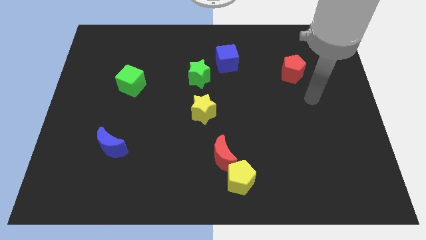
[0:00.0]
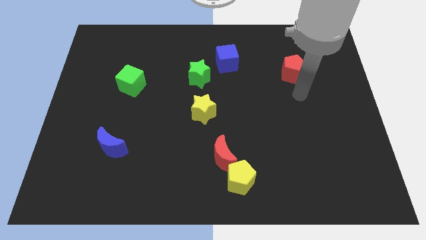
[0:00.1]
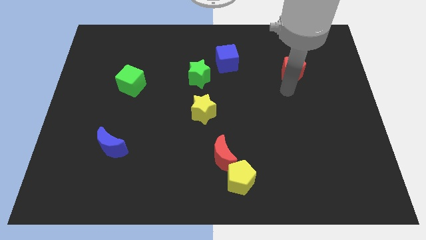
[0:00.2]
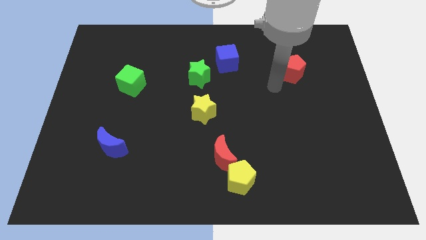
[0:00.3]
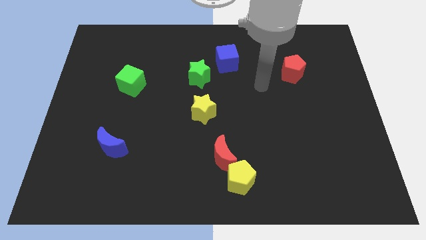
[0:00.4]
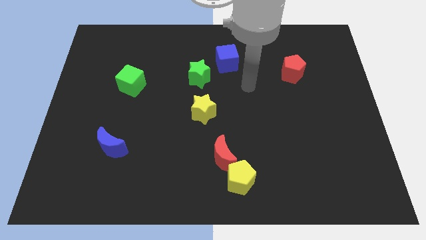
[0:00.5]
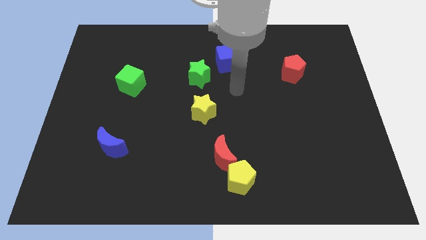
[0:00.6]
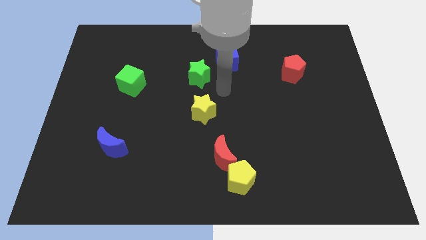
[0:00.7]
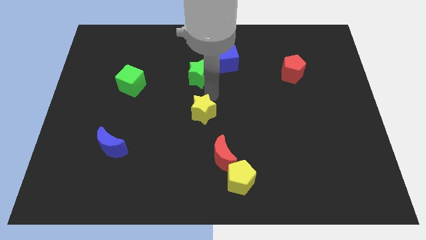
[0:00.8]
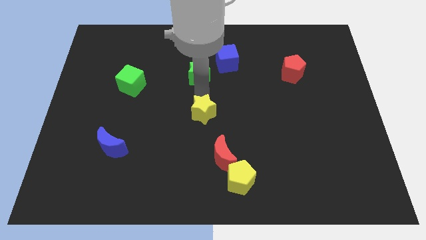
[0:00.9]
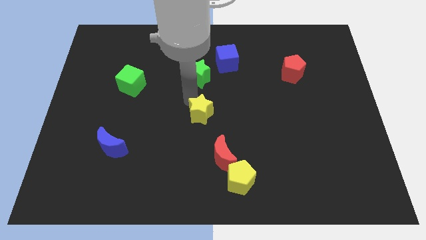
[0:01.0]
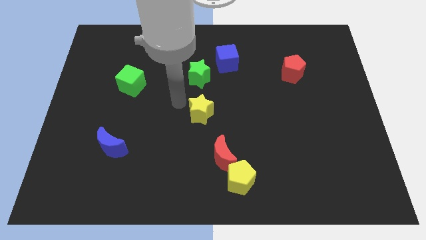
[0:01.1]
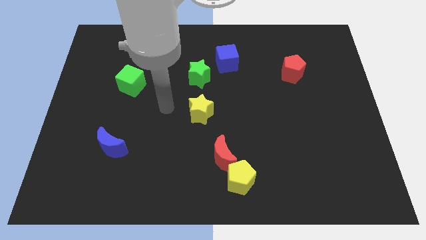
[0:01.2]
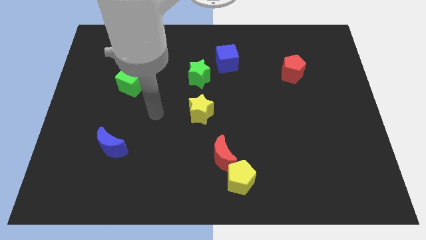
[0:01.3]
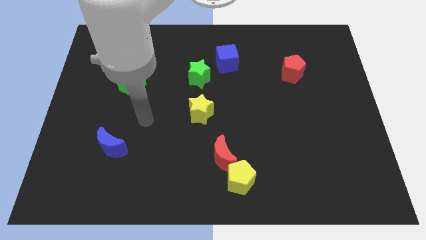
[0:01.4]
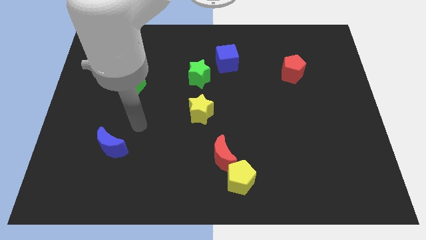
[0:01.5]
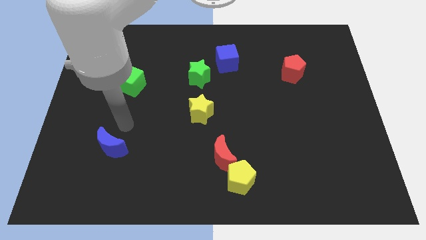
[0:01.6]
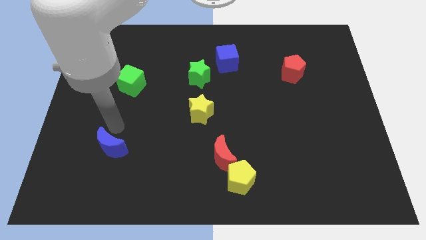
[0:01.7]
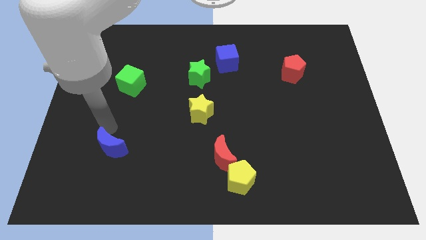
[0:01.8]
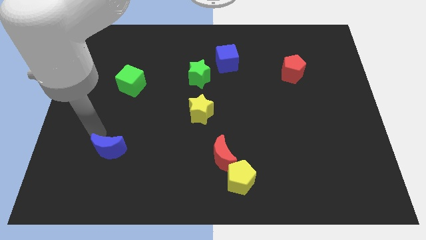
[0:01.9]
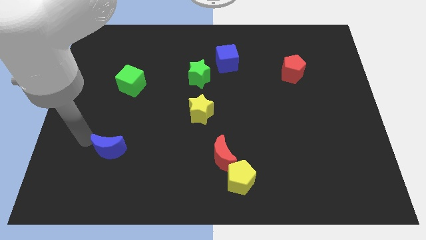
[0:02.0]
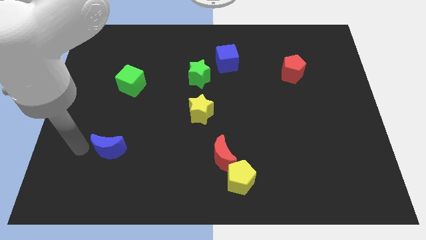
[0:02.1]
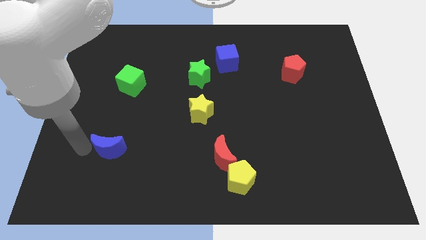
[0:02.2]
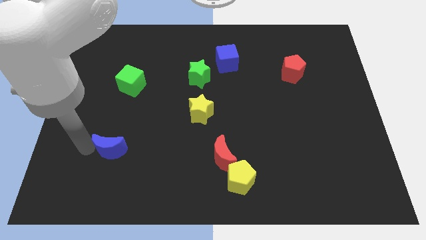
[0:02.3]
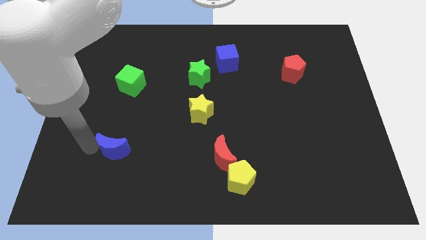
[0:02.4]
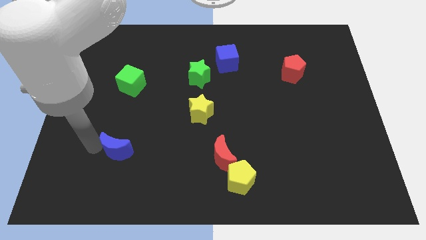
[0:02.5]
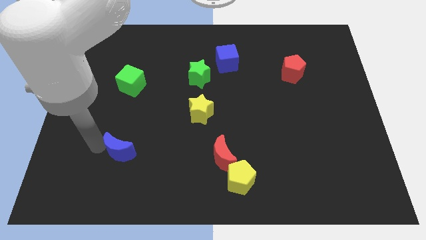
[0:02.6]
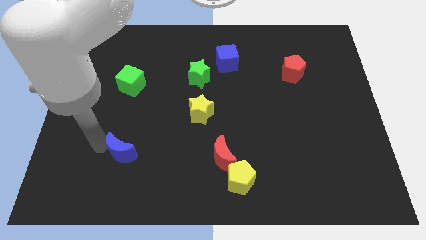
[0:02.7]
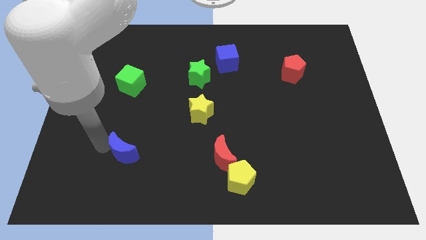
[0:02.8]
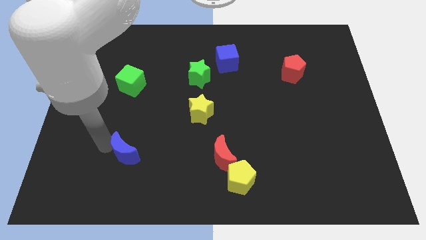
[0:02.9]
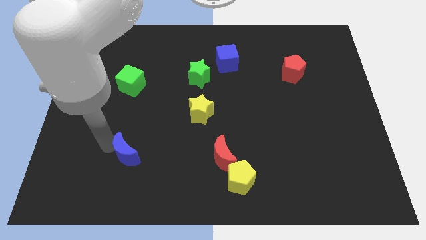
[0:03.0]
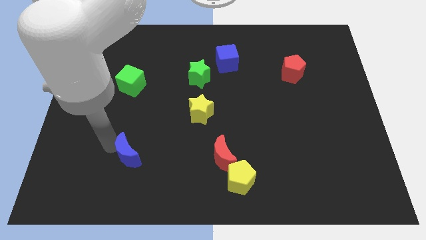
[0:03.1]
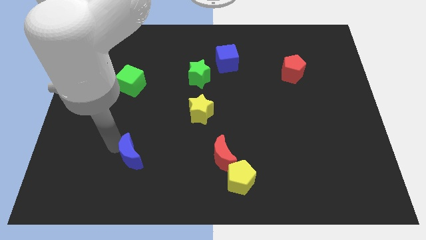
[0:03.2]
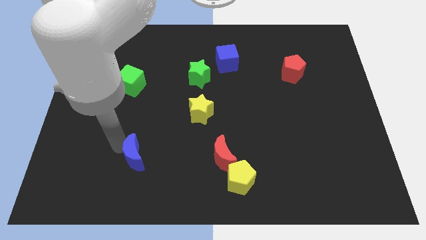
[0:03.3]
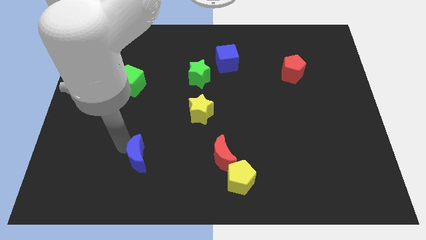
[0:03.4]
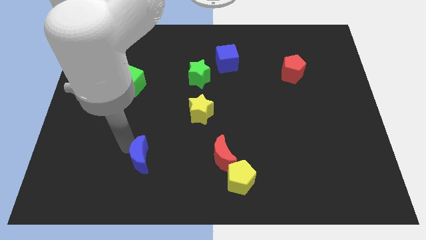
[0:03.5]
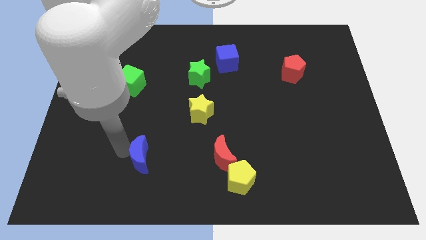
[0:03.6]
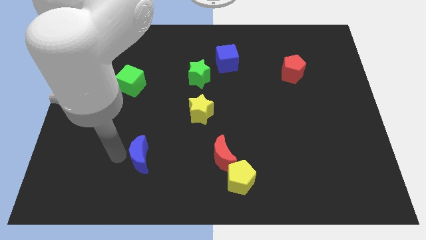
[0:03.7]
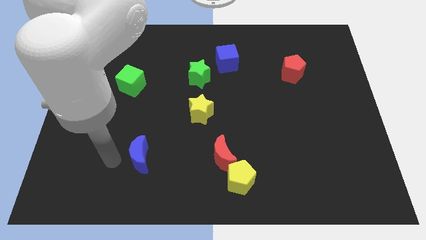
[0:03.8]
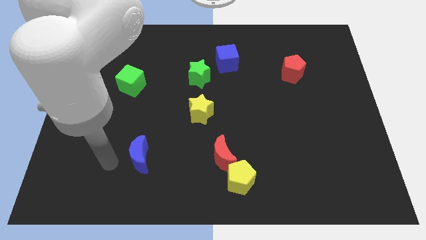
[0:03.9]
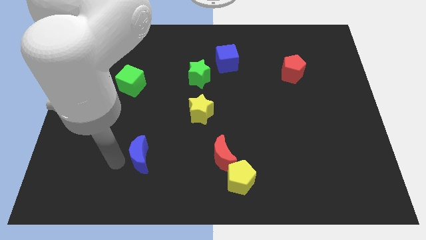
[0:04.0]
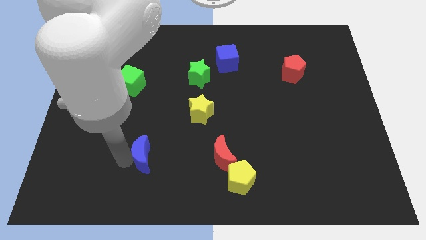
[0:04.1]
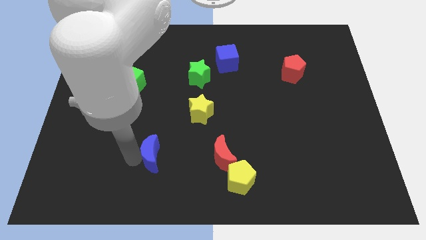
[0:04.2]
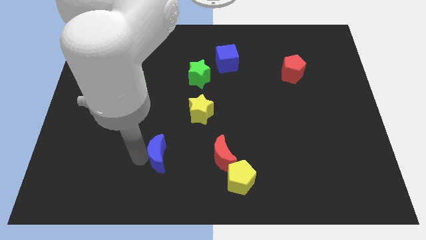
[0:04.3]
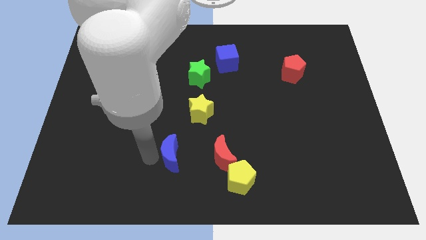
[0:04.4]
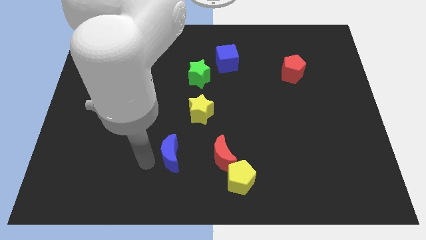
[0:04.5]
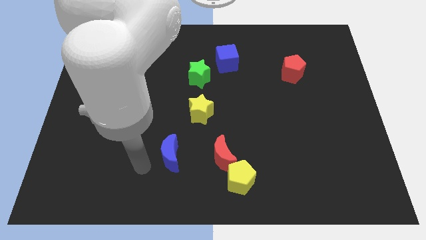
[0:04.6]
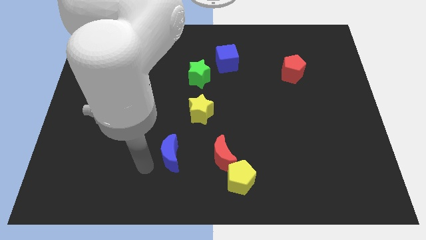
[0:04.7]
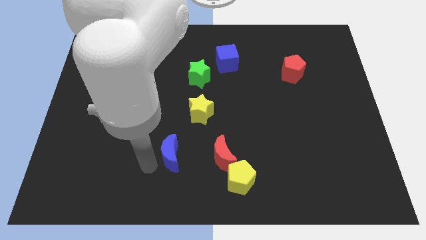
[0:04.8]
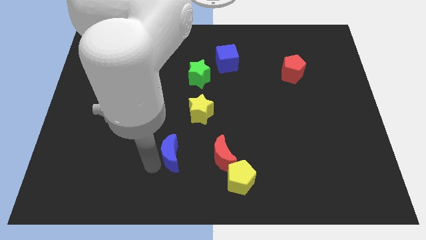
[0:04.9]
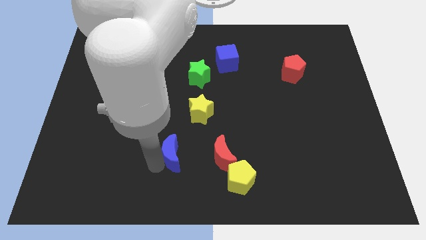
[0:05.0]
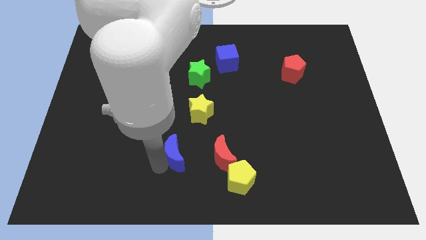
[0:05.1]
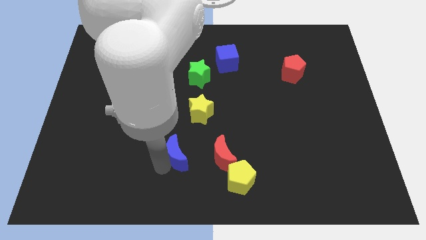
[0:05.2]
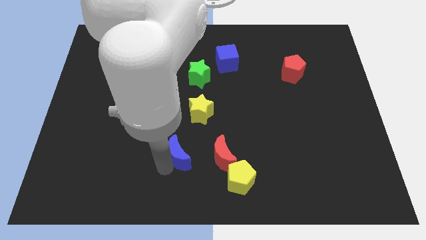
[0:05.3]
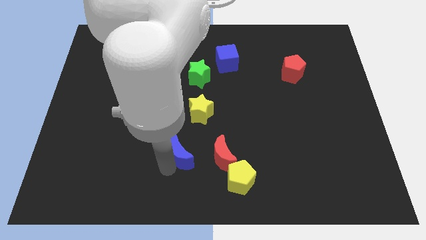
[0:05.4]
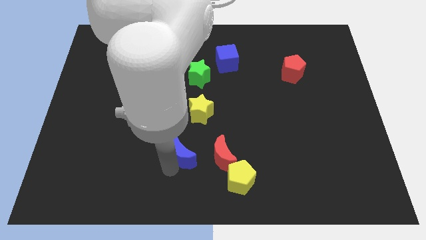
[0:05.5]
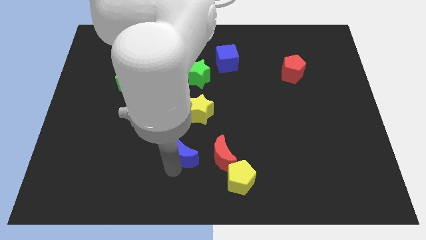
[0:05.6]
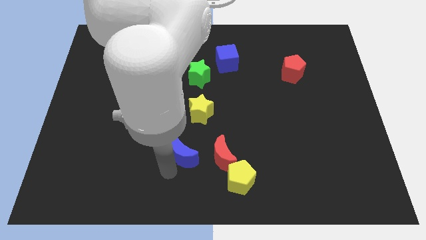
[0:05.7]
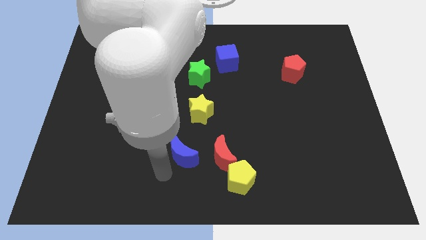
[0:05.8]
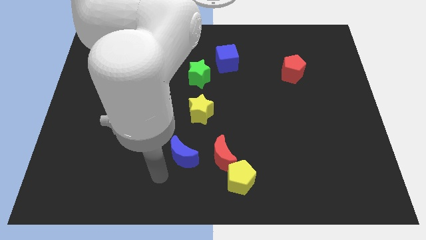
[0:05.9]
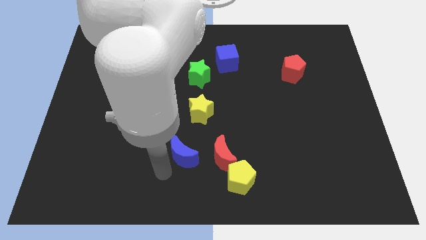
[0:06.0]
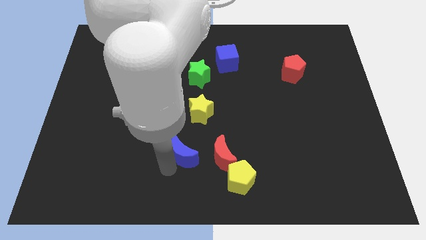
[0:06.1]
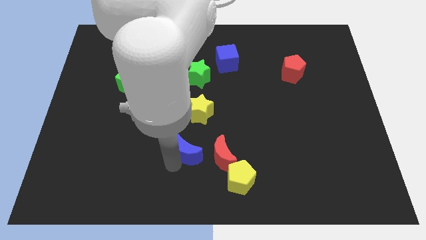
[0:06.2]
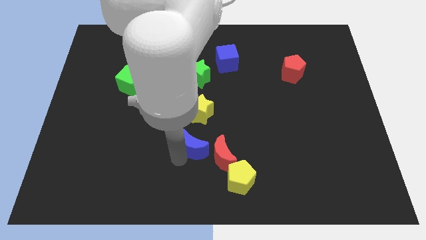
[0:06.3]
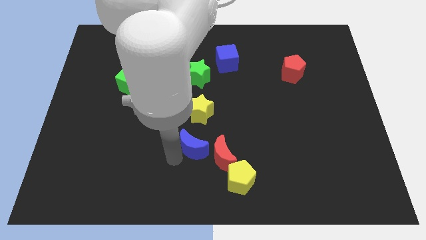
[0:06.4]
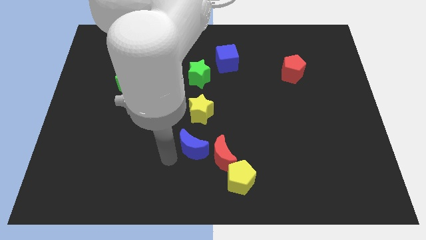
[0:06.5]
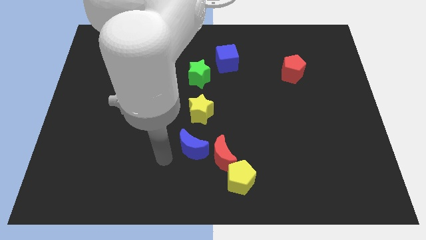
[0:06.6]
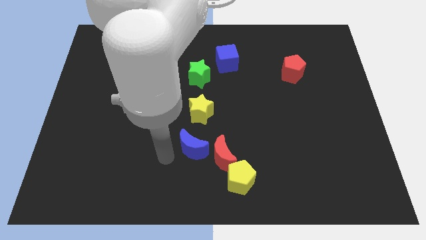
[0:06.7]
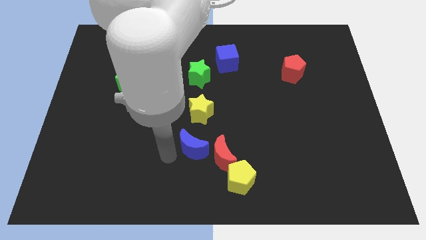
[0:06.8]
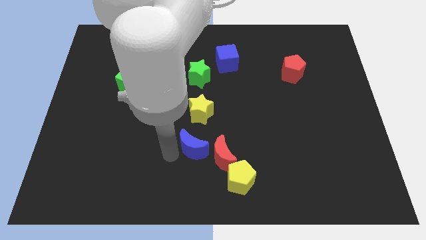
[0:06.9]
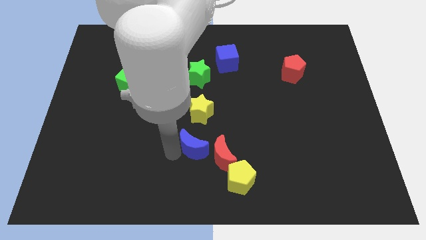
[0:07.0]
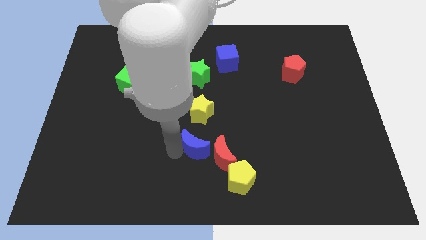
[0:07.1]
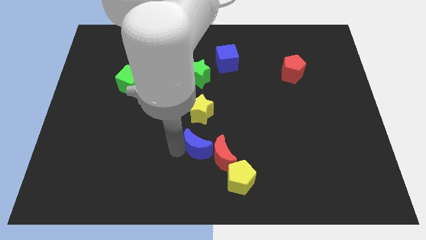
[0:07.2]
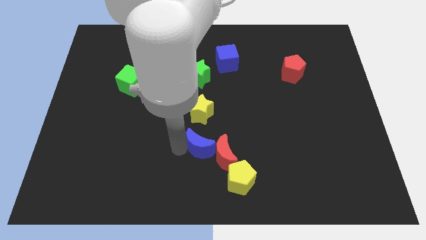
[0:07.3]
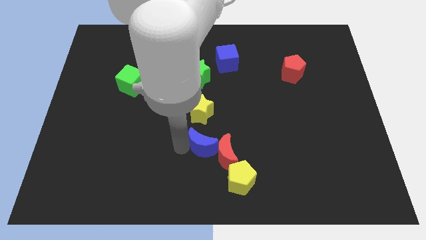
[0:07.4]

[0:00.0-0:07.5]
move the blue moon to the right

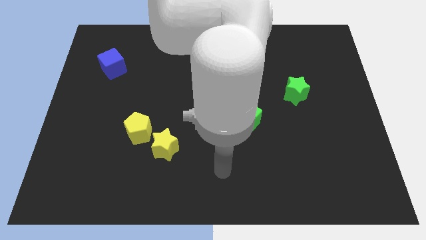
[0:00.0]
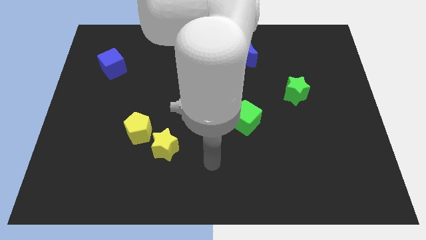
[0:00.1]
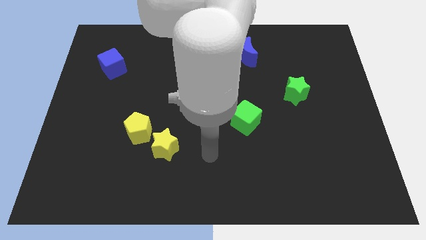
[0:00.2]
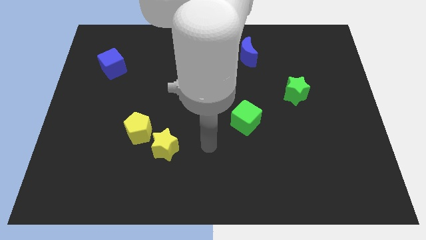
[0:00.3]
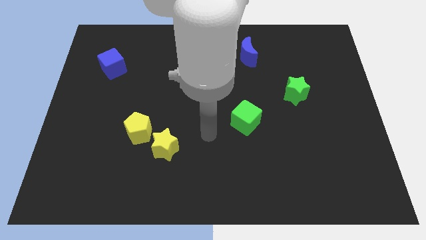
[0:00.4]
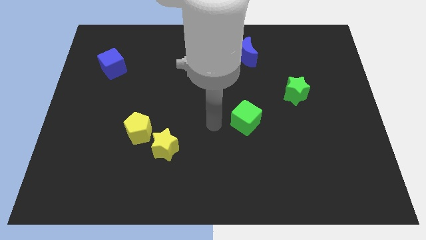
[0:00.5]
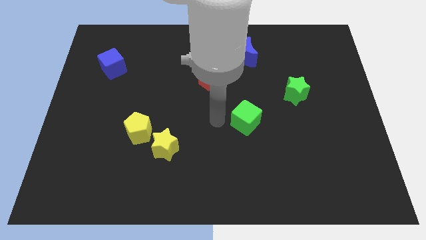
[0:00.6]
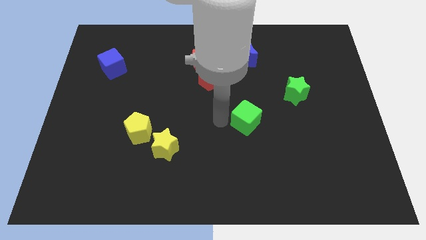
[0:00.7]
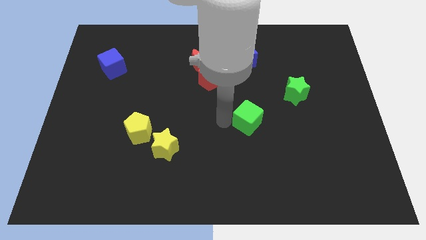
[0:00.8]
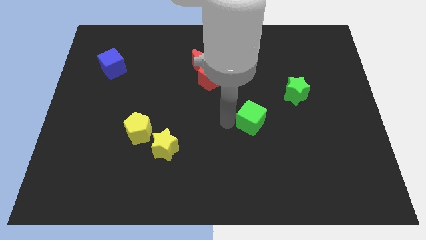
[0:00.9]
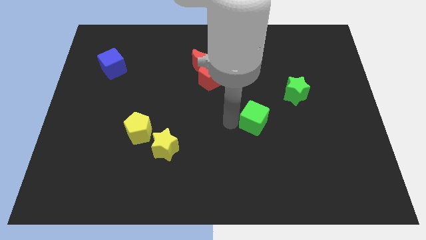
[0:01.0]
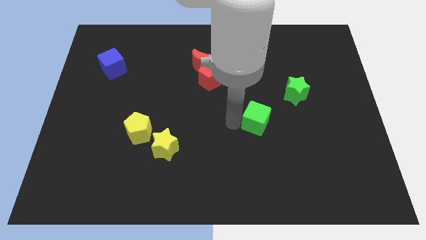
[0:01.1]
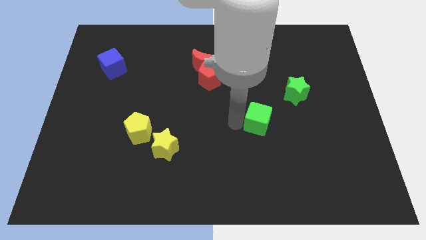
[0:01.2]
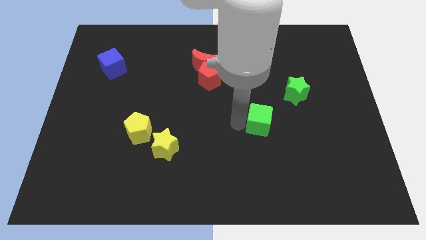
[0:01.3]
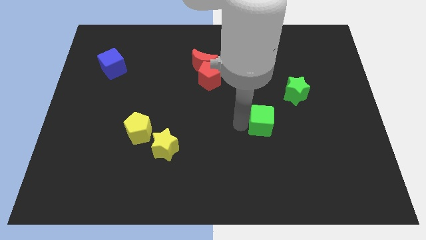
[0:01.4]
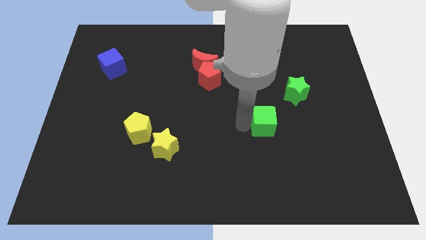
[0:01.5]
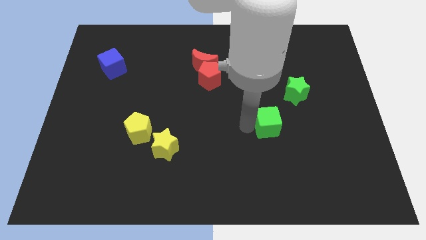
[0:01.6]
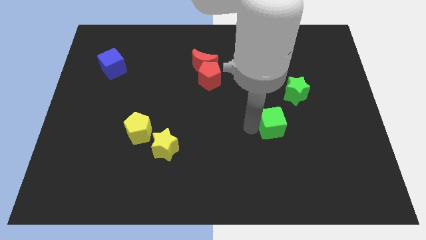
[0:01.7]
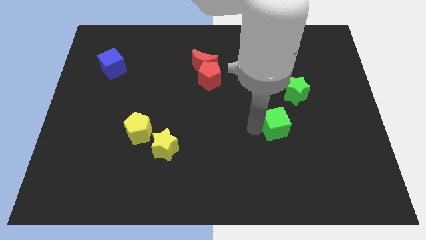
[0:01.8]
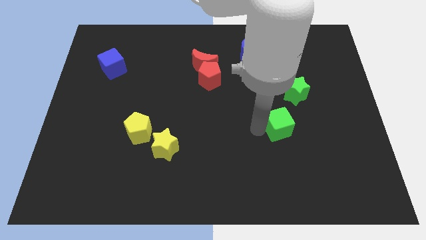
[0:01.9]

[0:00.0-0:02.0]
slide the green cube right somewhat
